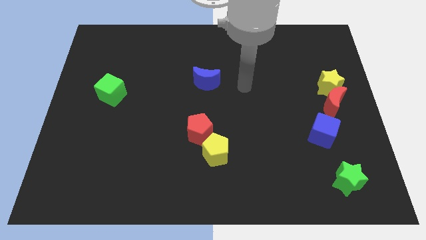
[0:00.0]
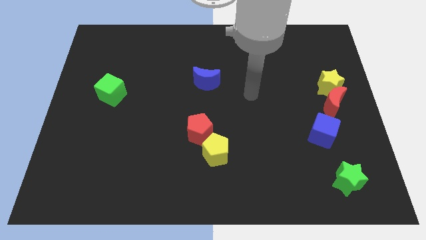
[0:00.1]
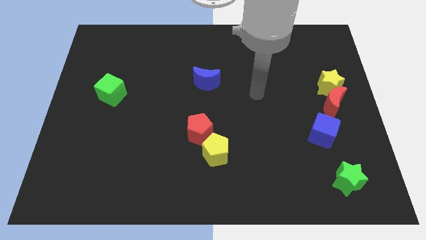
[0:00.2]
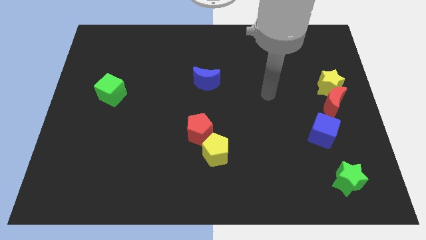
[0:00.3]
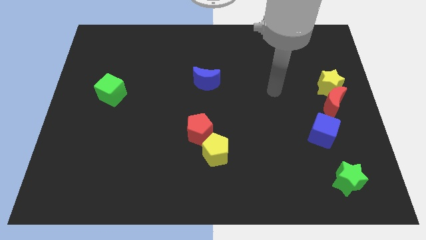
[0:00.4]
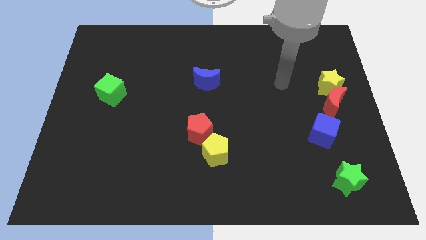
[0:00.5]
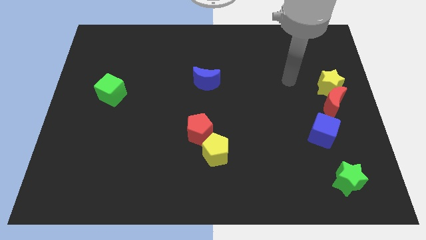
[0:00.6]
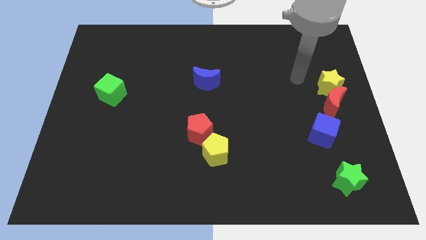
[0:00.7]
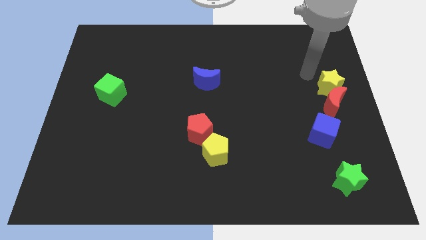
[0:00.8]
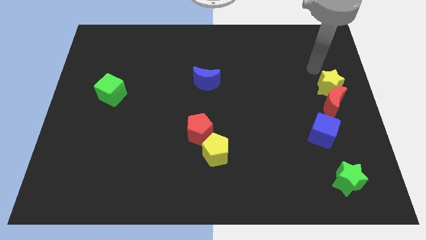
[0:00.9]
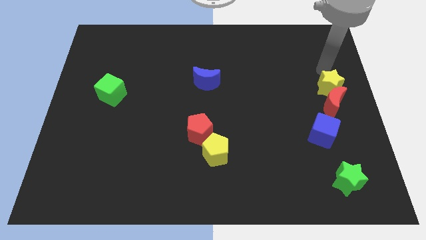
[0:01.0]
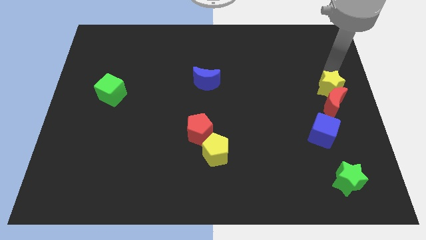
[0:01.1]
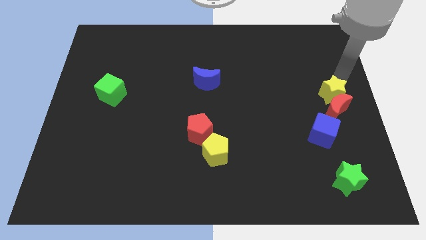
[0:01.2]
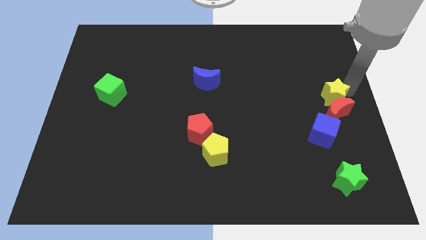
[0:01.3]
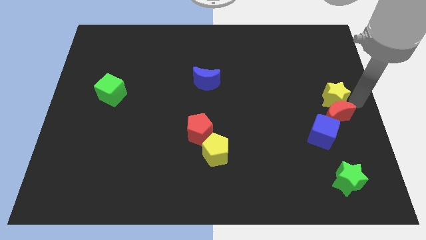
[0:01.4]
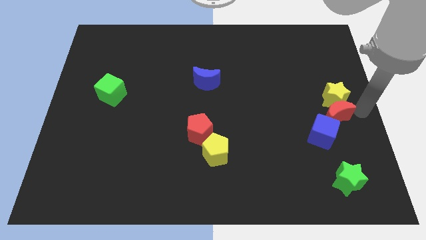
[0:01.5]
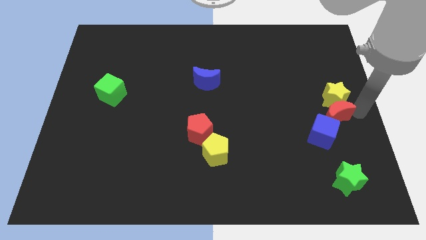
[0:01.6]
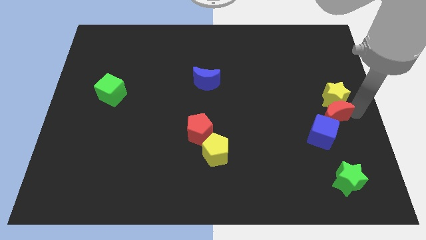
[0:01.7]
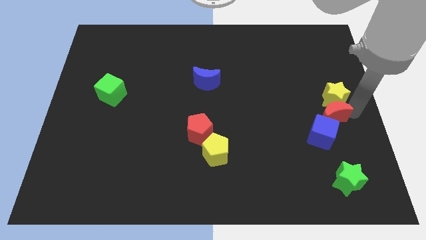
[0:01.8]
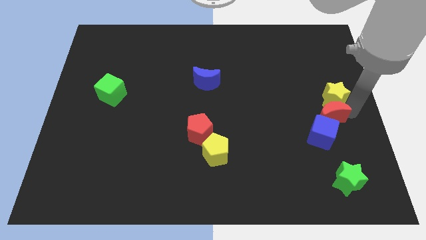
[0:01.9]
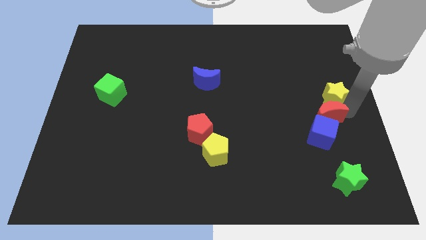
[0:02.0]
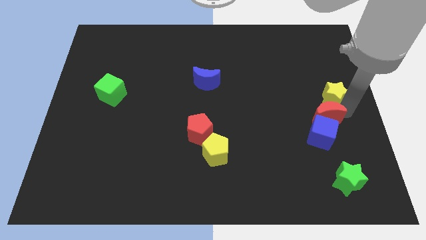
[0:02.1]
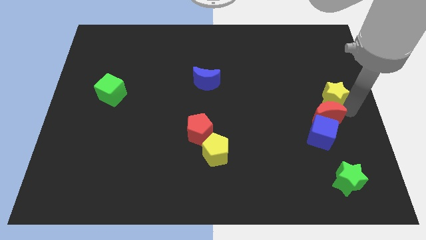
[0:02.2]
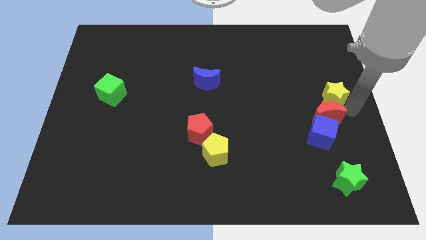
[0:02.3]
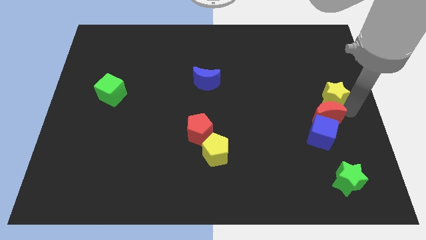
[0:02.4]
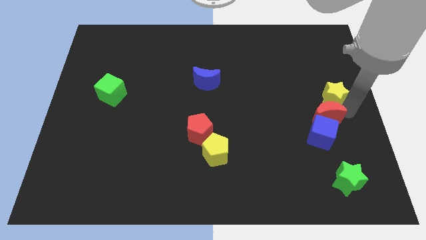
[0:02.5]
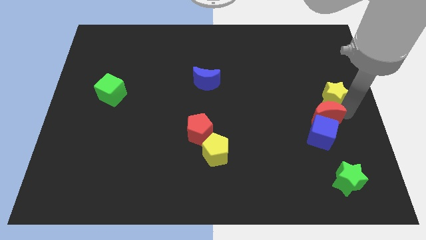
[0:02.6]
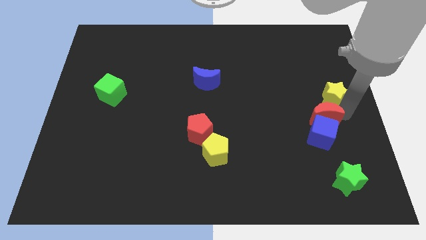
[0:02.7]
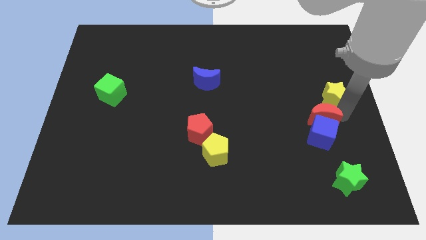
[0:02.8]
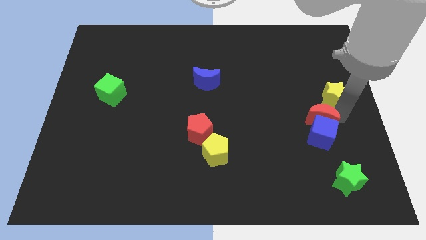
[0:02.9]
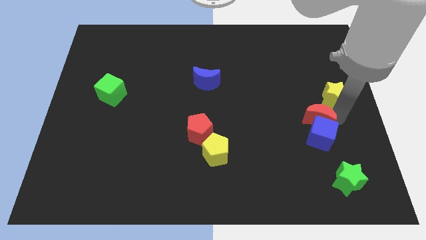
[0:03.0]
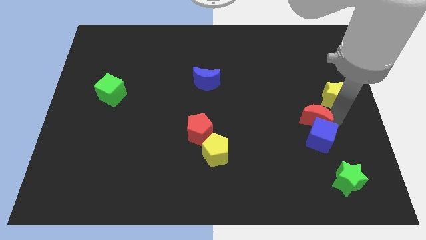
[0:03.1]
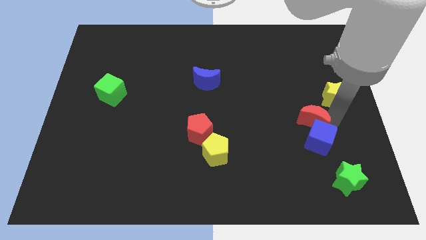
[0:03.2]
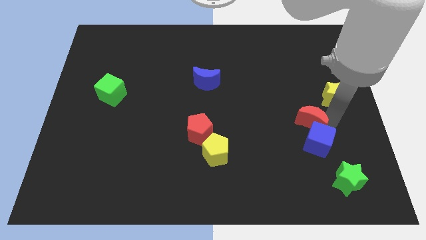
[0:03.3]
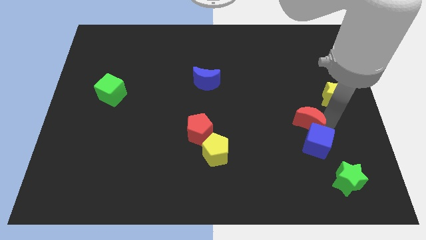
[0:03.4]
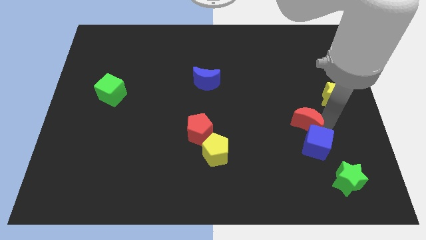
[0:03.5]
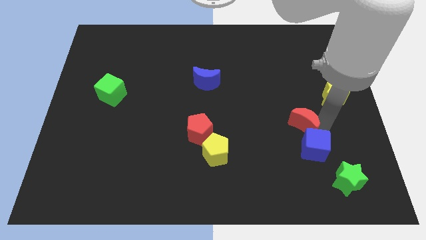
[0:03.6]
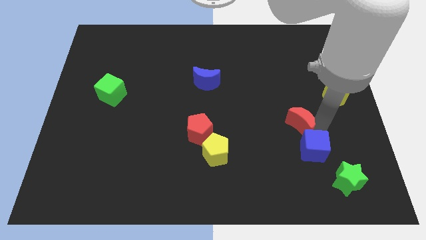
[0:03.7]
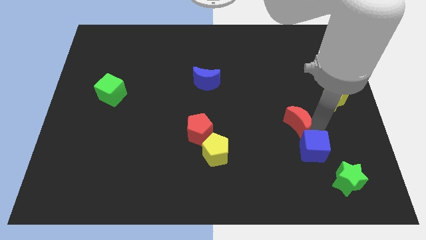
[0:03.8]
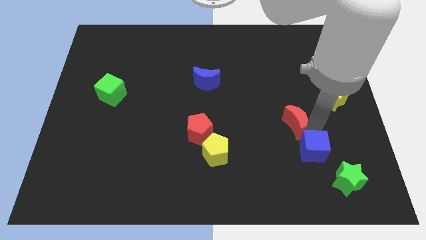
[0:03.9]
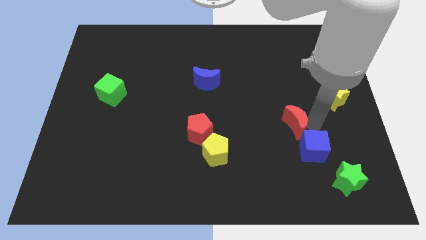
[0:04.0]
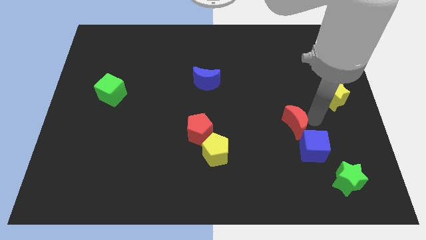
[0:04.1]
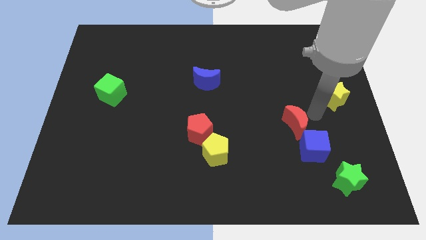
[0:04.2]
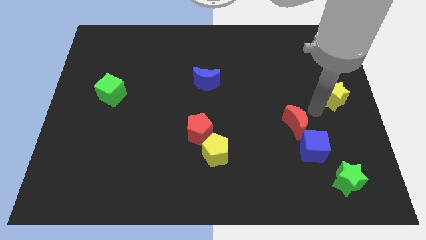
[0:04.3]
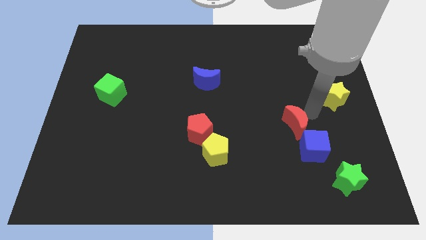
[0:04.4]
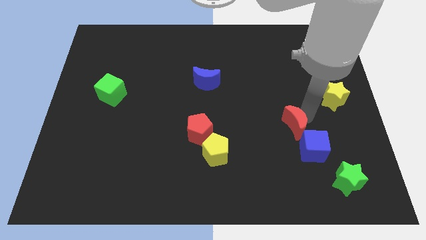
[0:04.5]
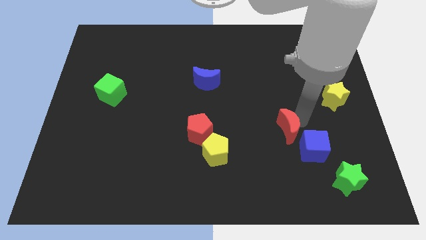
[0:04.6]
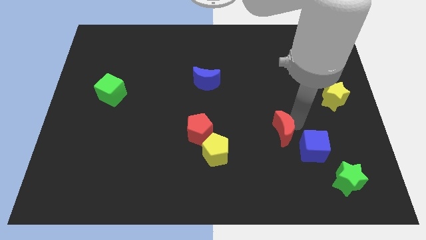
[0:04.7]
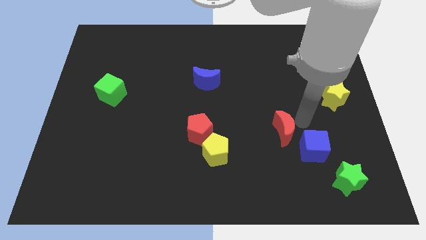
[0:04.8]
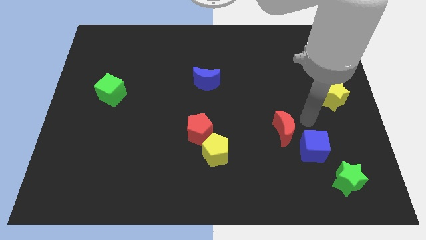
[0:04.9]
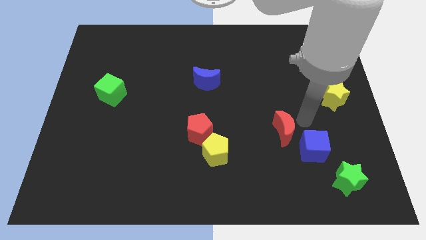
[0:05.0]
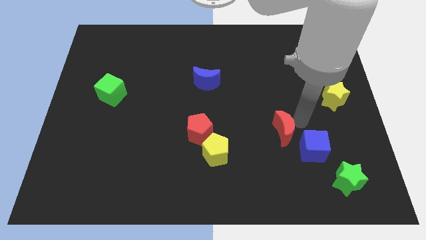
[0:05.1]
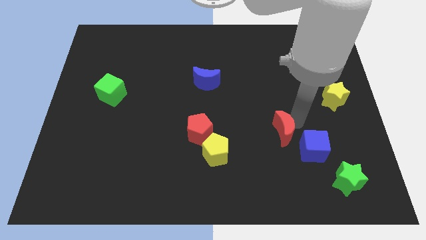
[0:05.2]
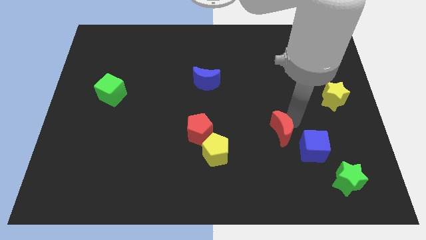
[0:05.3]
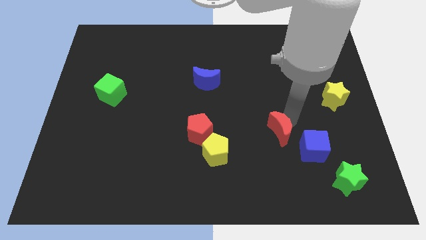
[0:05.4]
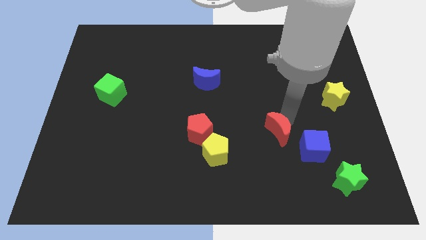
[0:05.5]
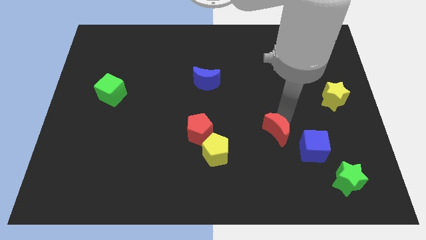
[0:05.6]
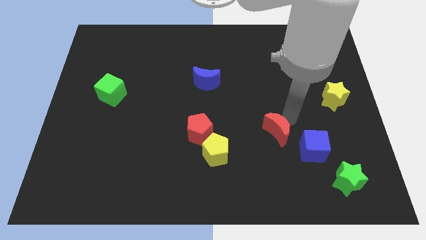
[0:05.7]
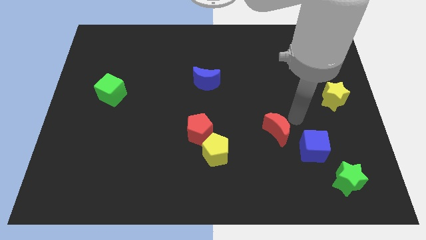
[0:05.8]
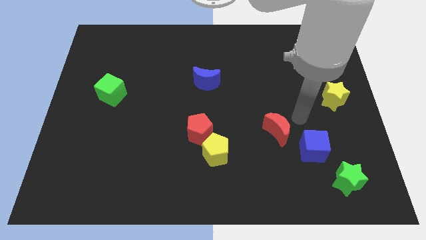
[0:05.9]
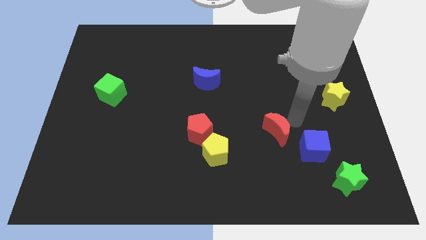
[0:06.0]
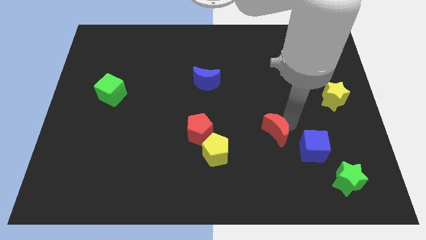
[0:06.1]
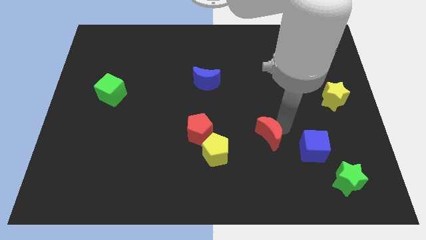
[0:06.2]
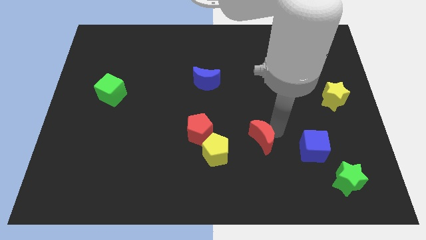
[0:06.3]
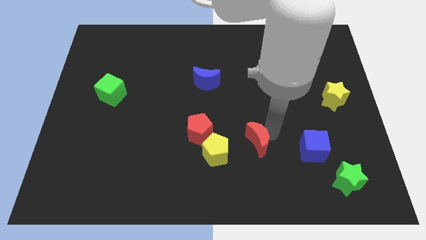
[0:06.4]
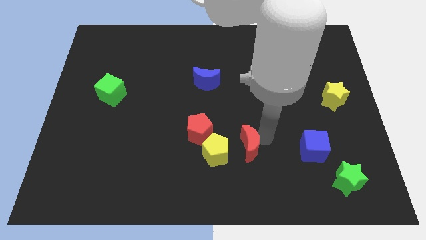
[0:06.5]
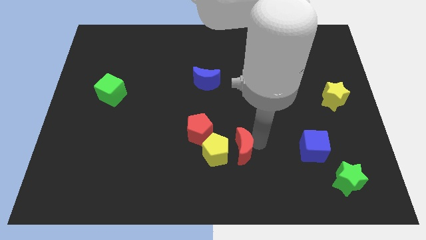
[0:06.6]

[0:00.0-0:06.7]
slide the red moon diagonally down and to the right of the red pentagon
